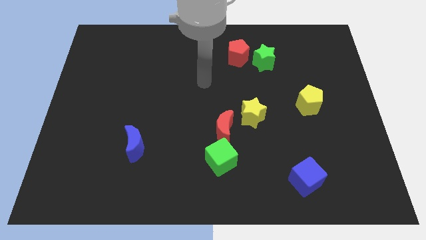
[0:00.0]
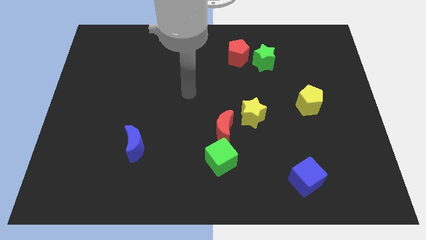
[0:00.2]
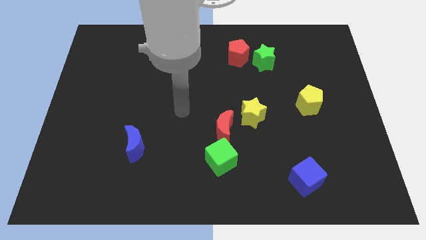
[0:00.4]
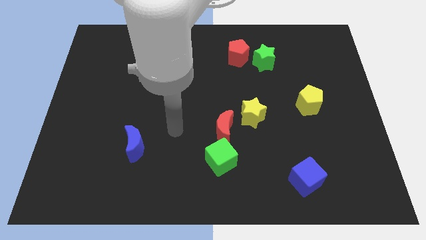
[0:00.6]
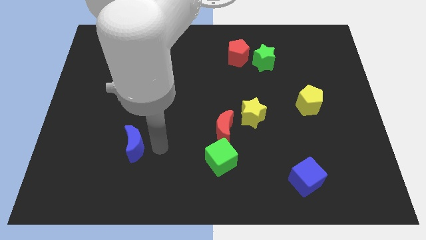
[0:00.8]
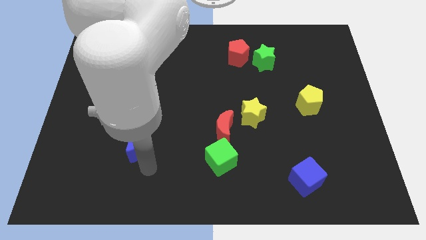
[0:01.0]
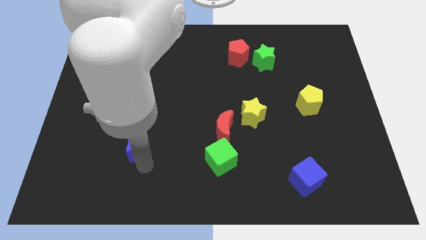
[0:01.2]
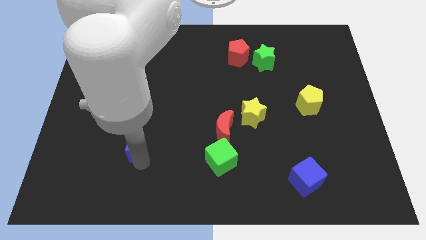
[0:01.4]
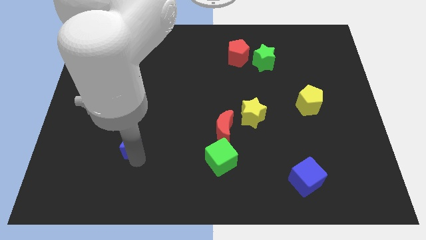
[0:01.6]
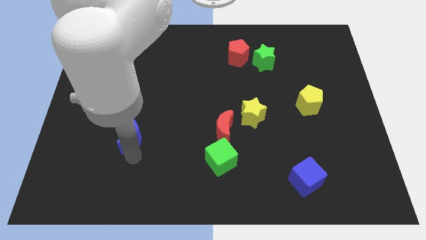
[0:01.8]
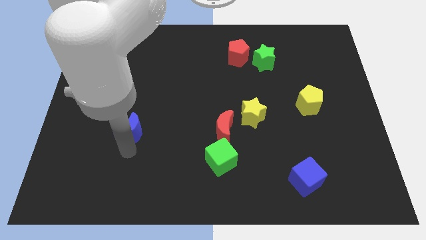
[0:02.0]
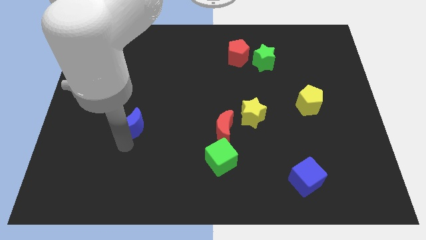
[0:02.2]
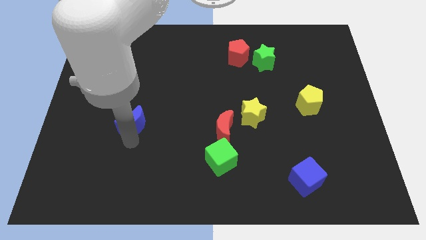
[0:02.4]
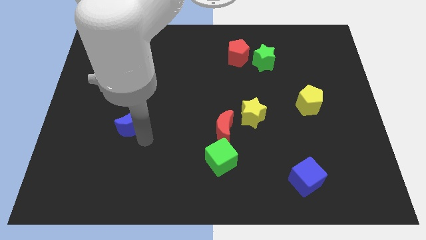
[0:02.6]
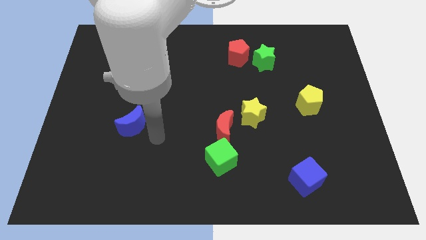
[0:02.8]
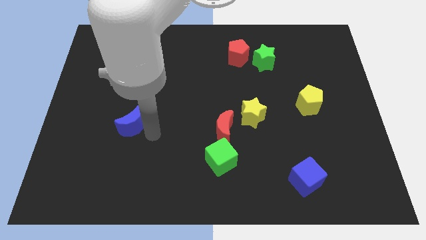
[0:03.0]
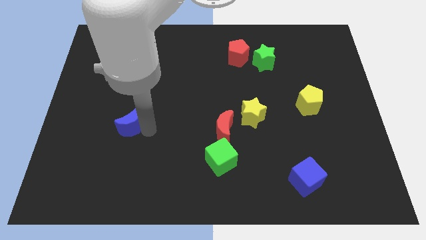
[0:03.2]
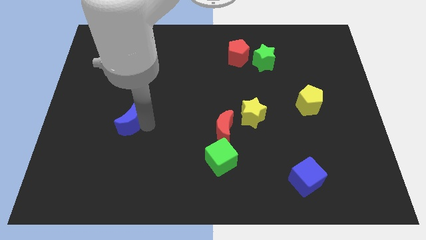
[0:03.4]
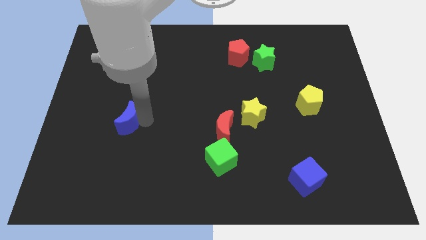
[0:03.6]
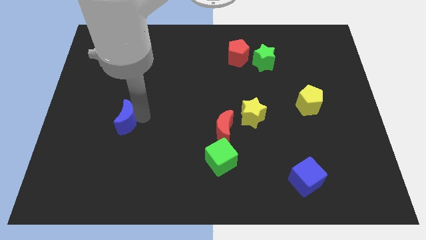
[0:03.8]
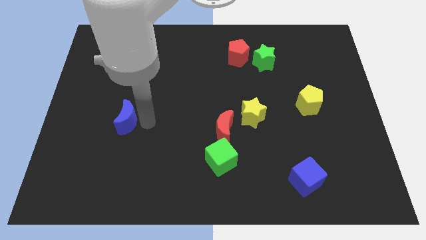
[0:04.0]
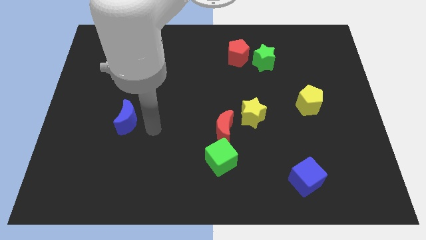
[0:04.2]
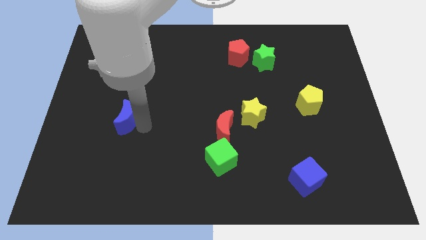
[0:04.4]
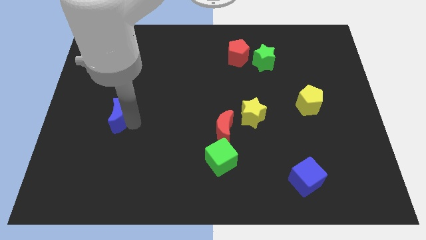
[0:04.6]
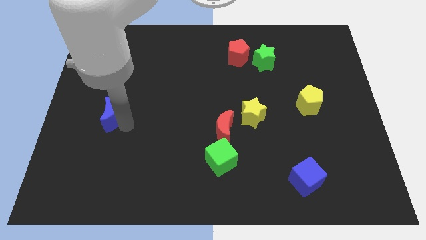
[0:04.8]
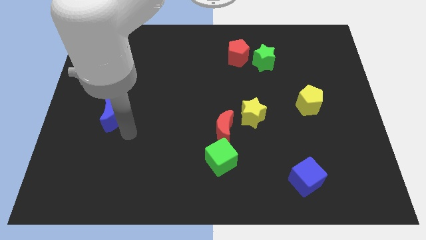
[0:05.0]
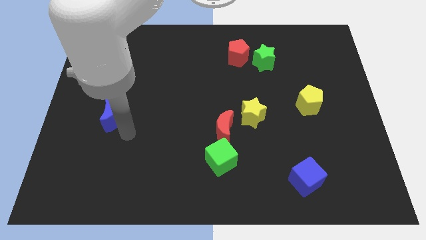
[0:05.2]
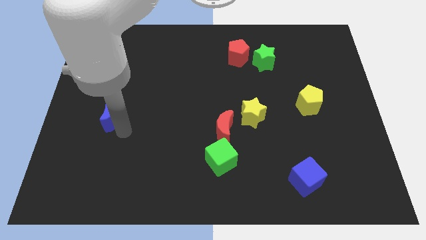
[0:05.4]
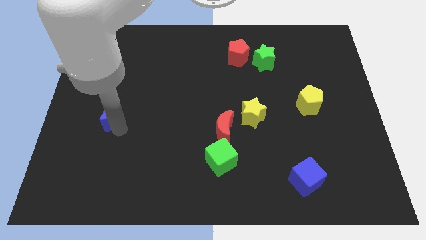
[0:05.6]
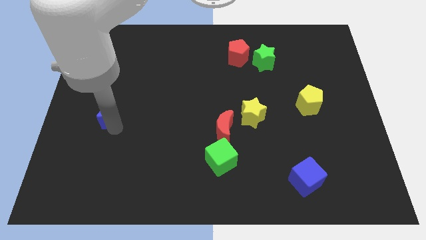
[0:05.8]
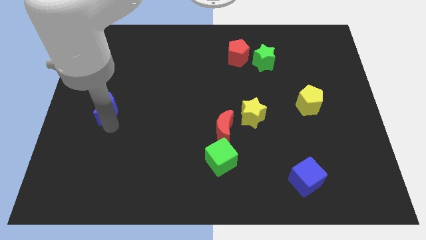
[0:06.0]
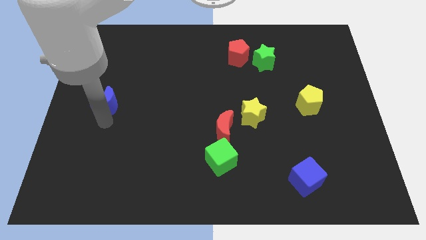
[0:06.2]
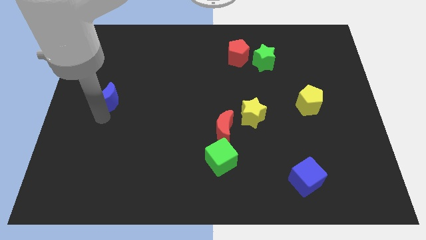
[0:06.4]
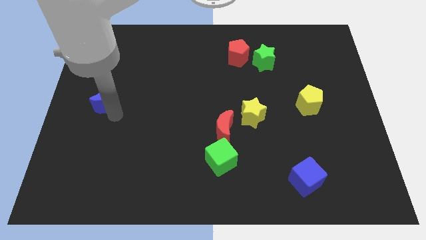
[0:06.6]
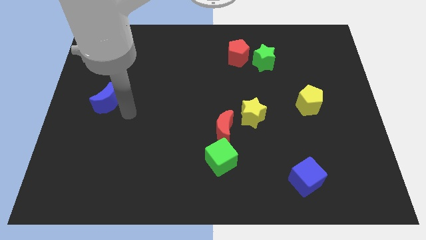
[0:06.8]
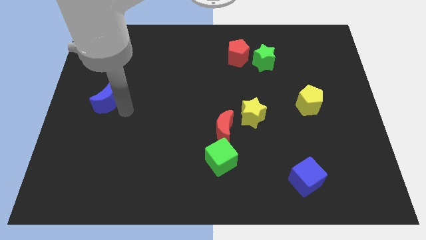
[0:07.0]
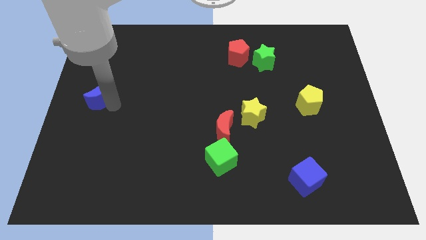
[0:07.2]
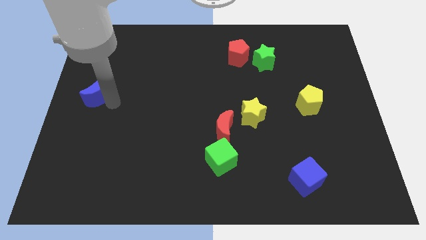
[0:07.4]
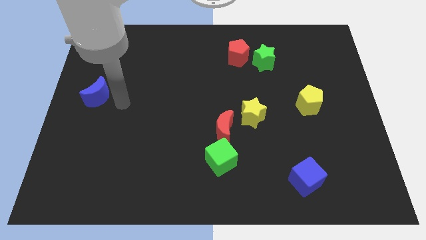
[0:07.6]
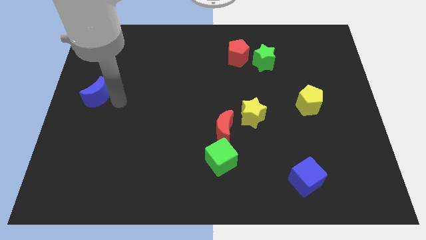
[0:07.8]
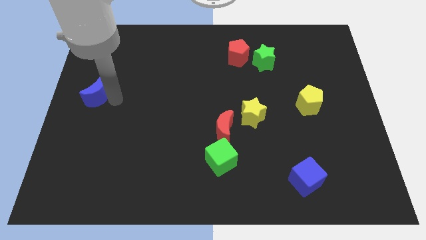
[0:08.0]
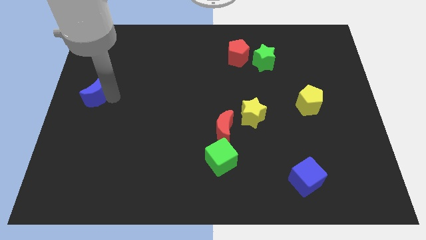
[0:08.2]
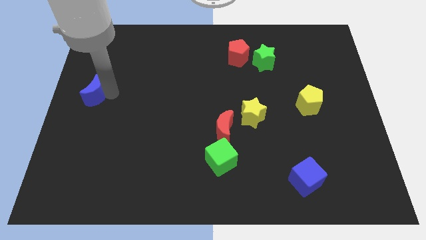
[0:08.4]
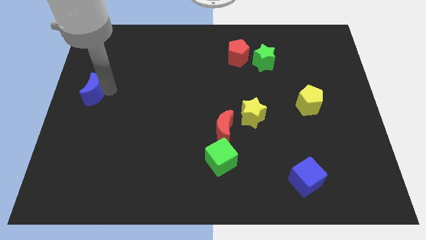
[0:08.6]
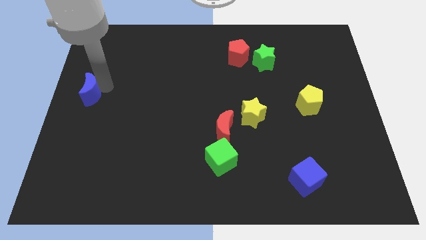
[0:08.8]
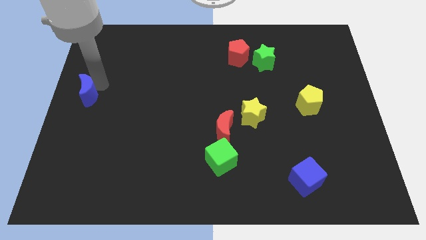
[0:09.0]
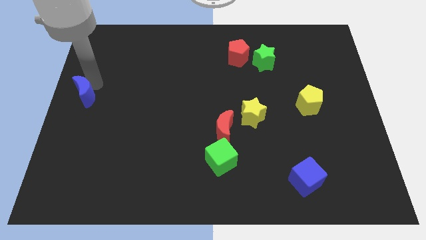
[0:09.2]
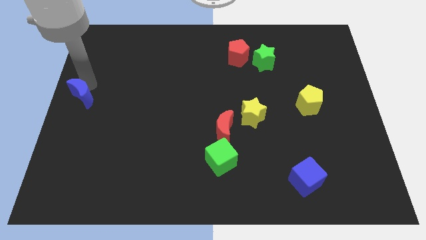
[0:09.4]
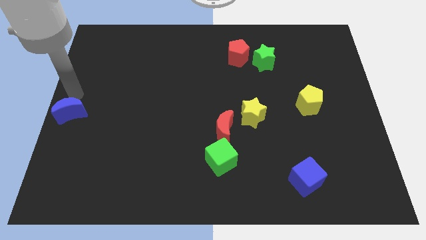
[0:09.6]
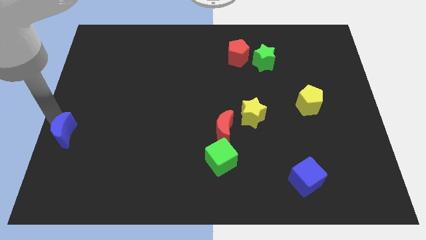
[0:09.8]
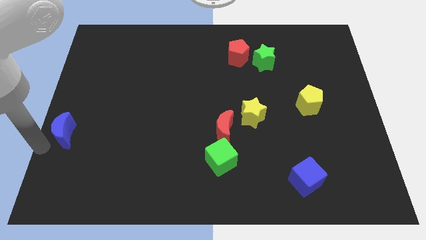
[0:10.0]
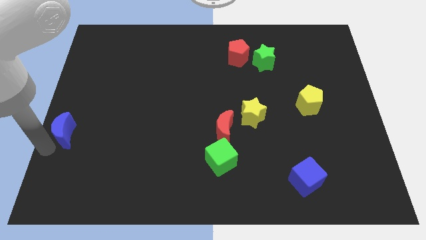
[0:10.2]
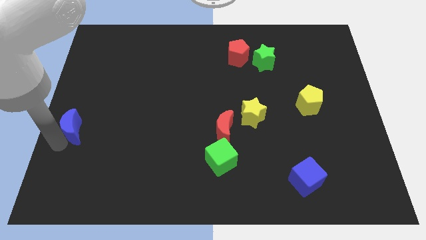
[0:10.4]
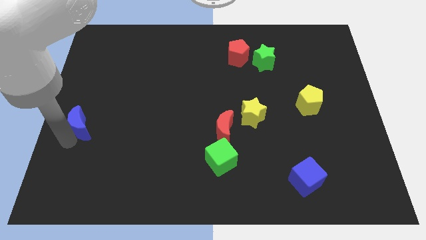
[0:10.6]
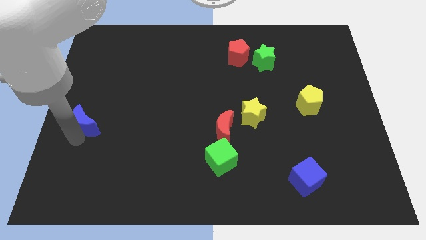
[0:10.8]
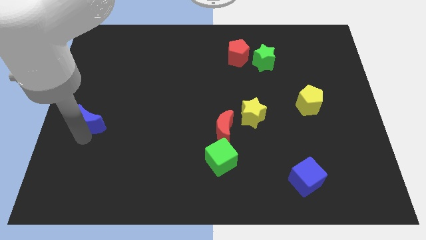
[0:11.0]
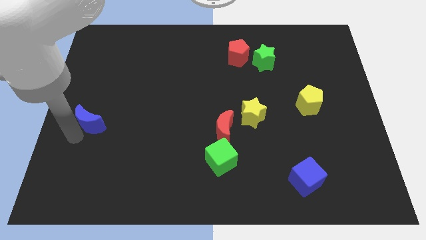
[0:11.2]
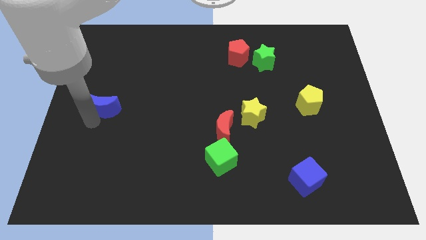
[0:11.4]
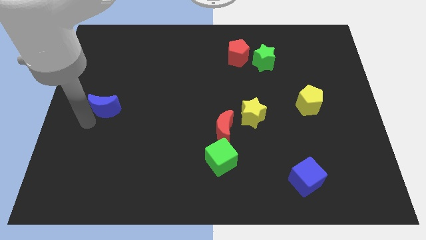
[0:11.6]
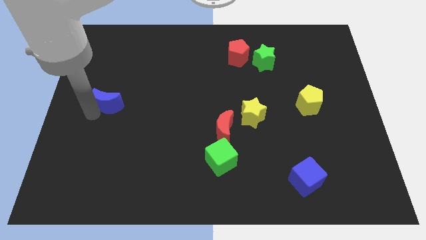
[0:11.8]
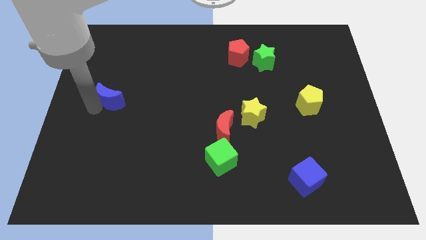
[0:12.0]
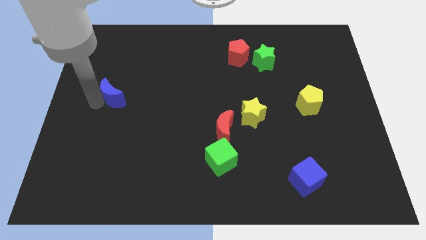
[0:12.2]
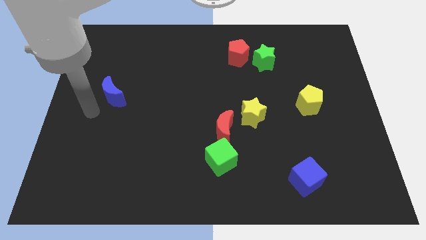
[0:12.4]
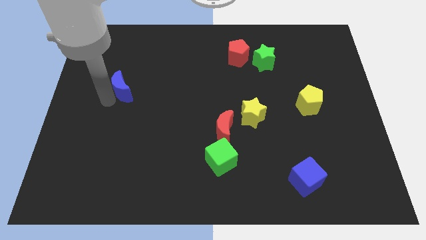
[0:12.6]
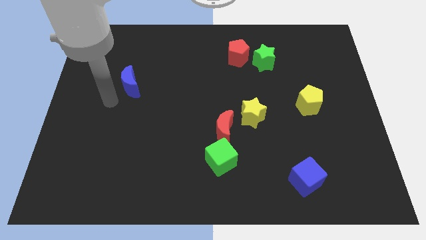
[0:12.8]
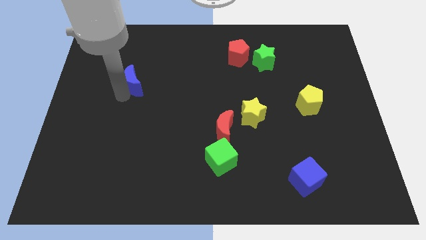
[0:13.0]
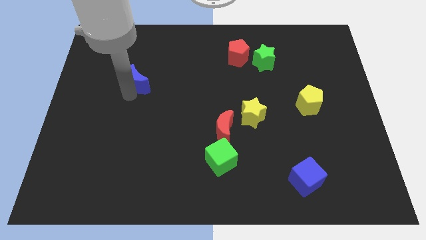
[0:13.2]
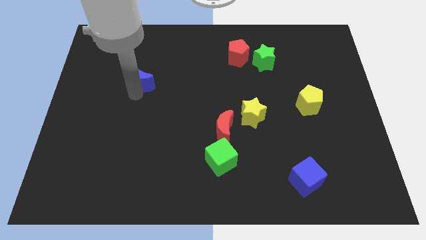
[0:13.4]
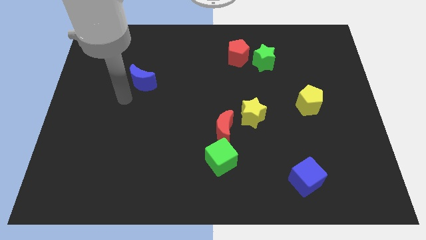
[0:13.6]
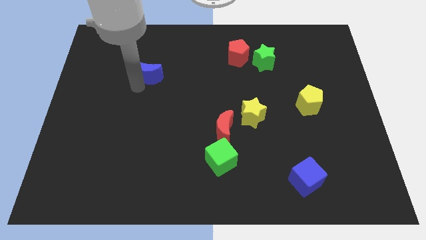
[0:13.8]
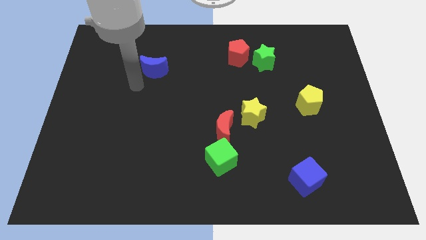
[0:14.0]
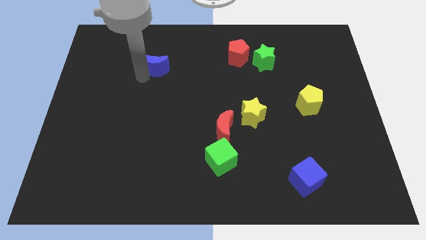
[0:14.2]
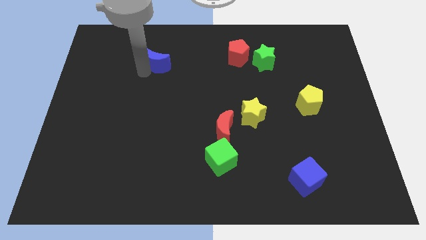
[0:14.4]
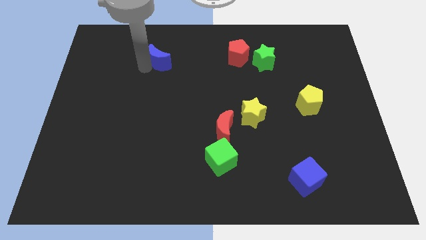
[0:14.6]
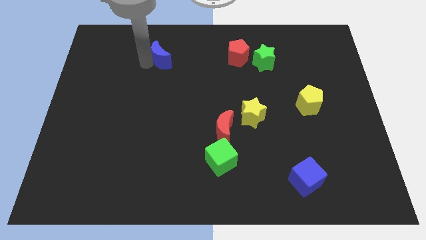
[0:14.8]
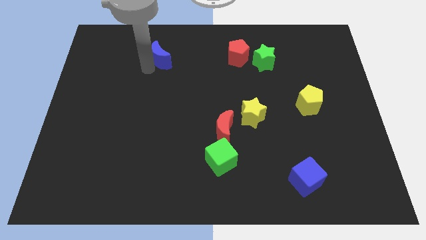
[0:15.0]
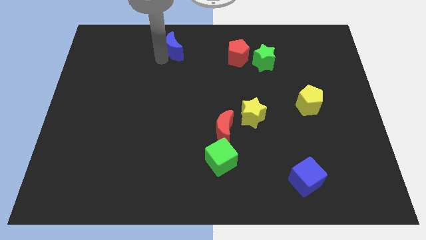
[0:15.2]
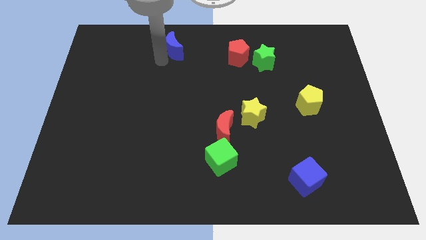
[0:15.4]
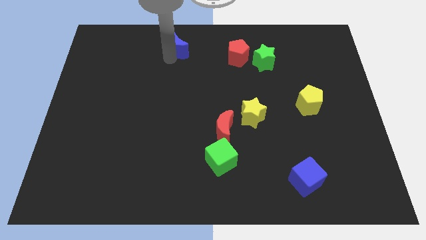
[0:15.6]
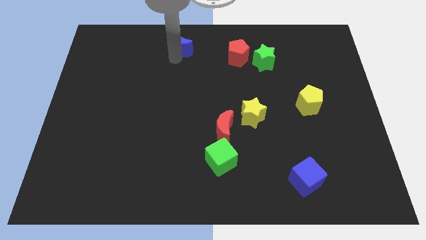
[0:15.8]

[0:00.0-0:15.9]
push the blue moon to the top
